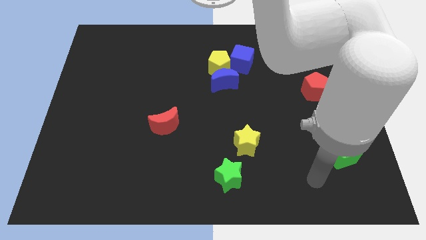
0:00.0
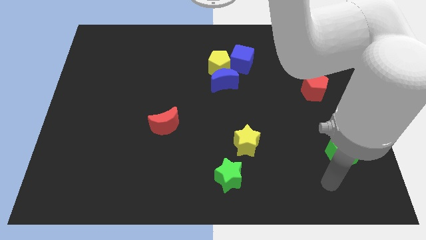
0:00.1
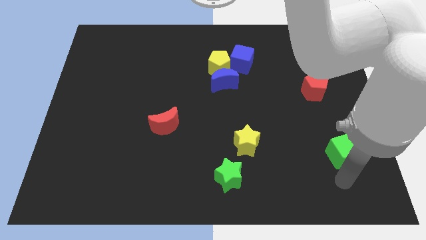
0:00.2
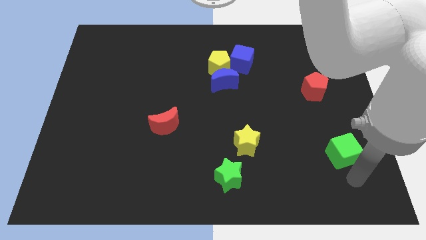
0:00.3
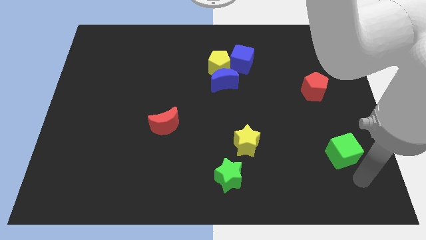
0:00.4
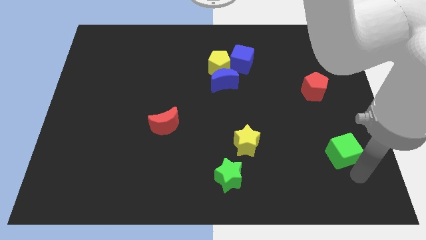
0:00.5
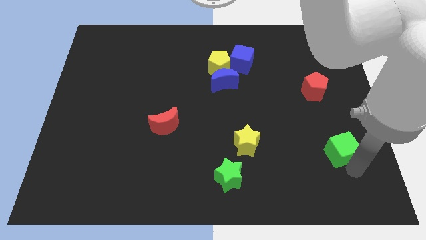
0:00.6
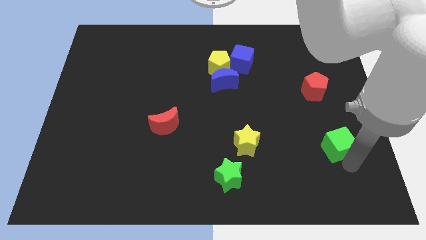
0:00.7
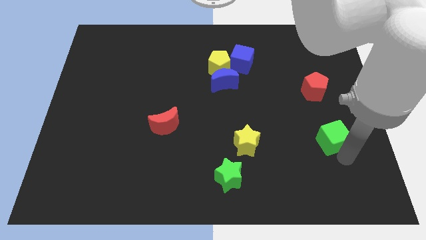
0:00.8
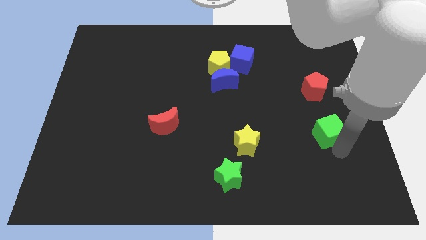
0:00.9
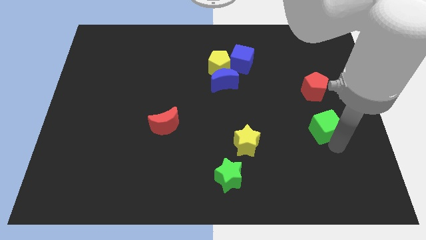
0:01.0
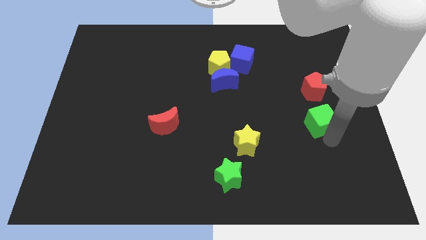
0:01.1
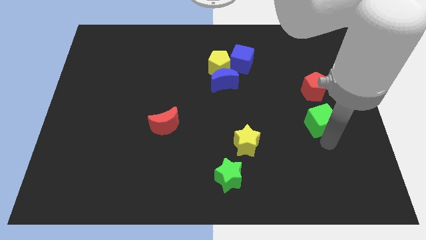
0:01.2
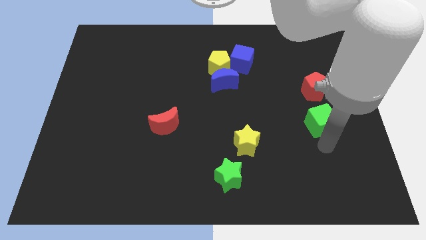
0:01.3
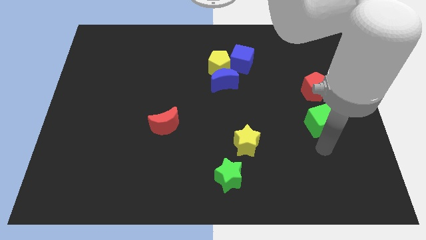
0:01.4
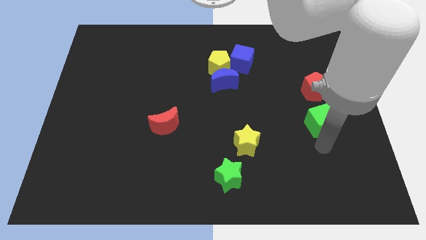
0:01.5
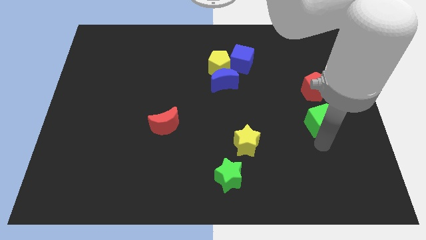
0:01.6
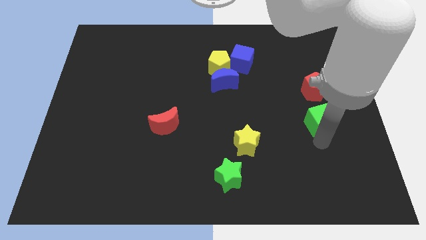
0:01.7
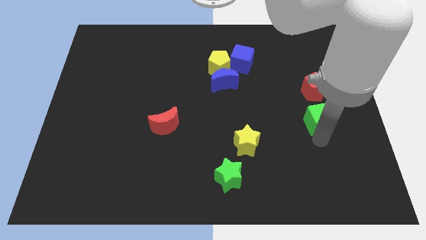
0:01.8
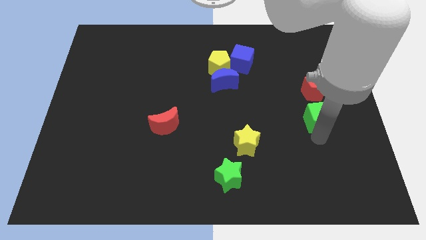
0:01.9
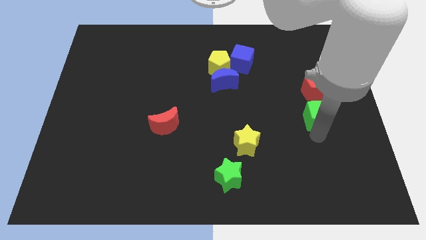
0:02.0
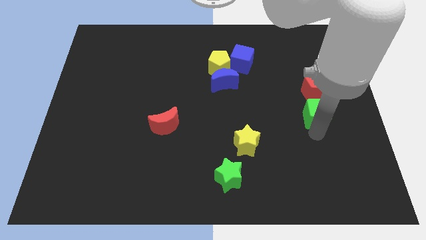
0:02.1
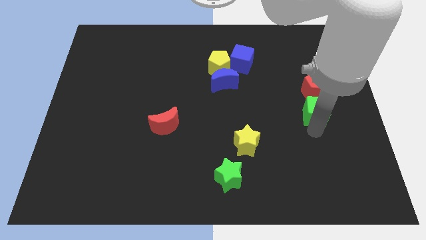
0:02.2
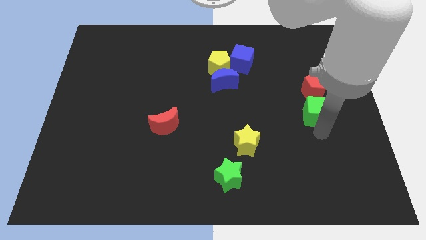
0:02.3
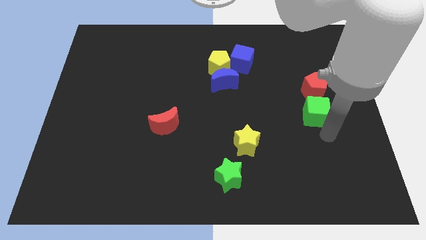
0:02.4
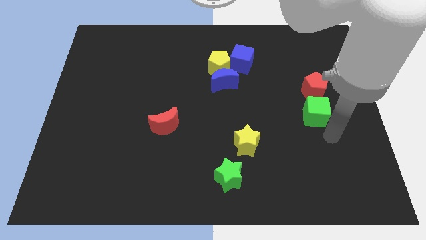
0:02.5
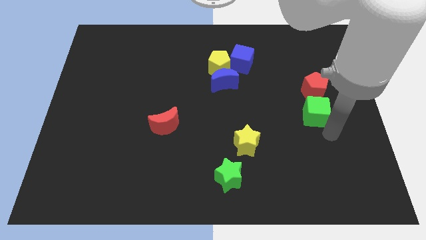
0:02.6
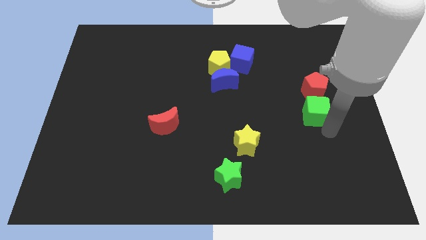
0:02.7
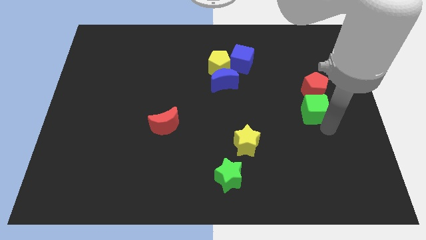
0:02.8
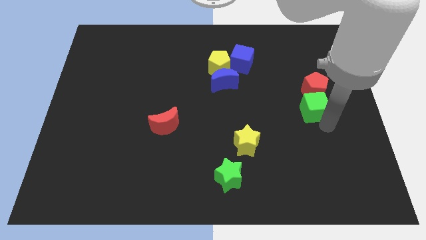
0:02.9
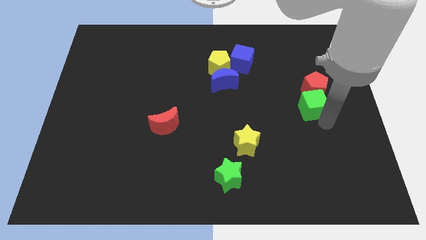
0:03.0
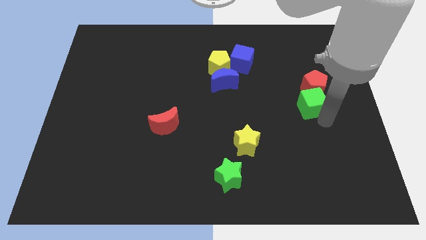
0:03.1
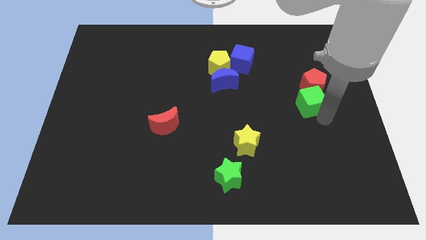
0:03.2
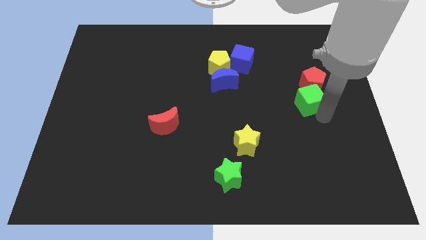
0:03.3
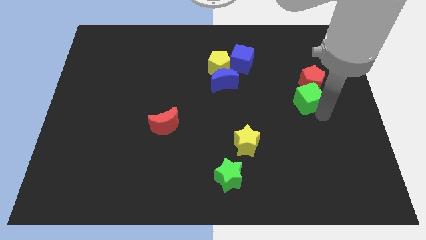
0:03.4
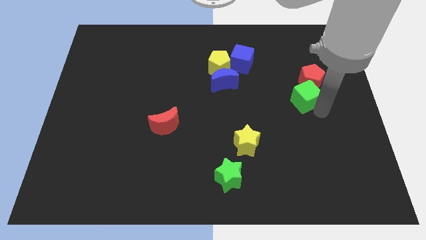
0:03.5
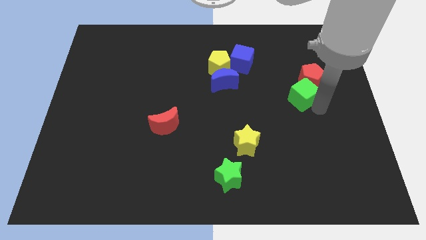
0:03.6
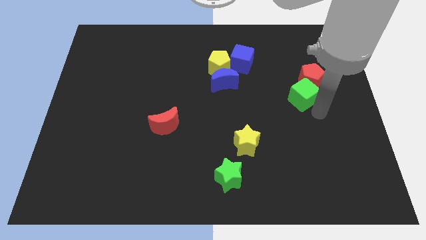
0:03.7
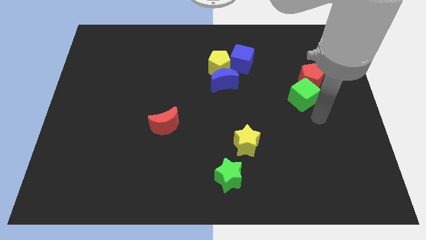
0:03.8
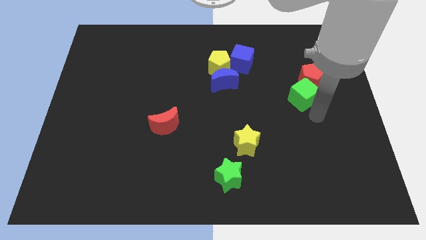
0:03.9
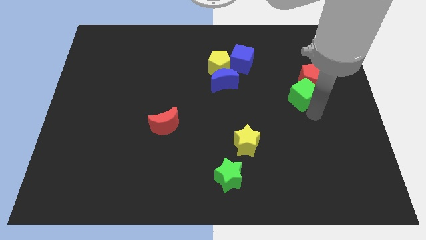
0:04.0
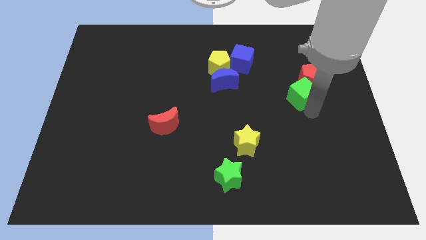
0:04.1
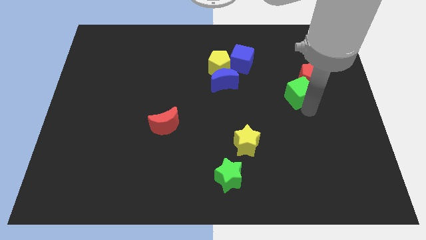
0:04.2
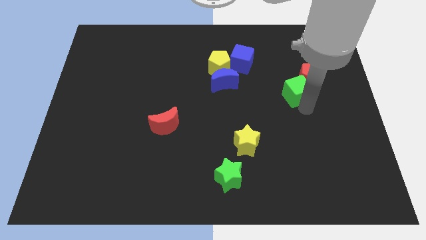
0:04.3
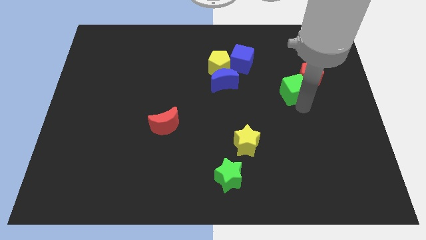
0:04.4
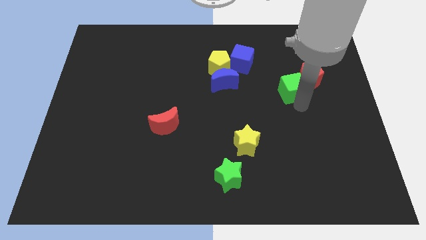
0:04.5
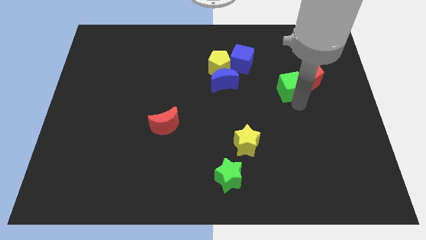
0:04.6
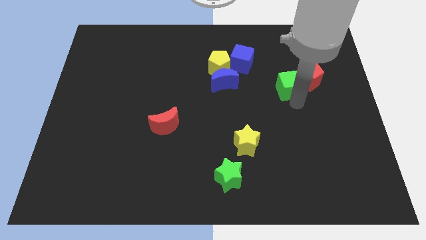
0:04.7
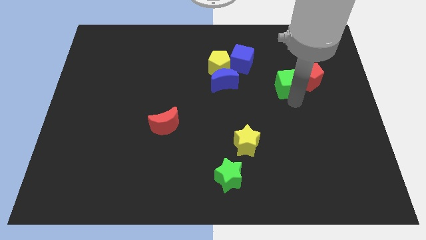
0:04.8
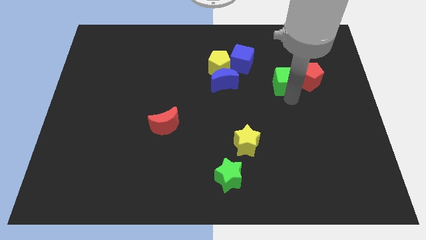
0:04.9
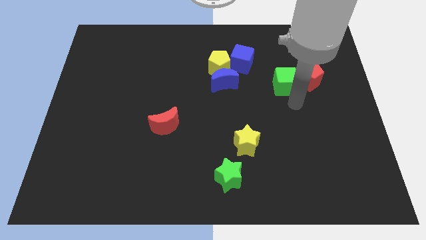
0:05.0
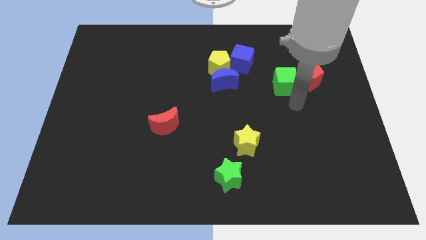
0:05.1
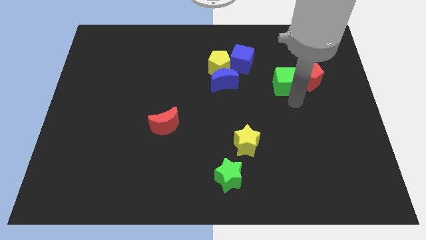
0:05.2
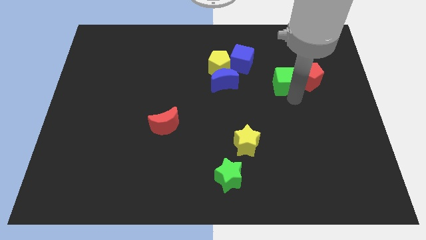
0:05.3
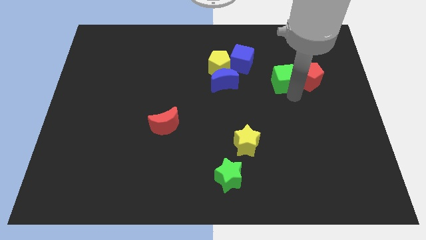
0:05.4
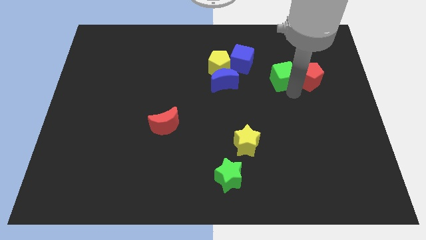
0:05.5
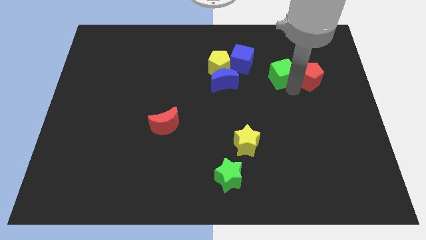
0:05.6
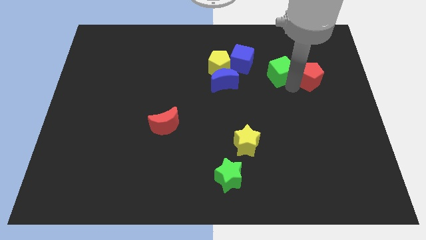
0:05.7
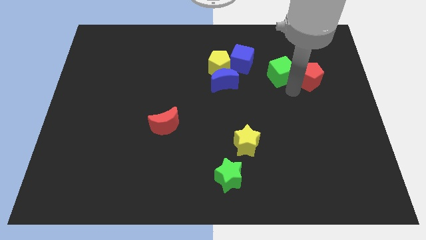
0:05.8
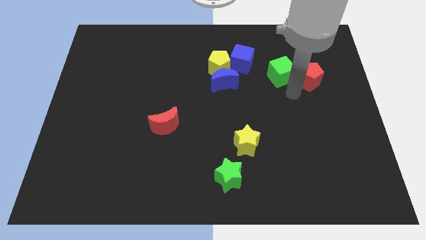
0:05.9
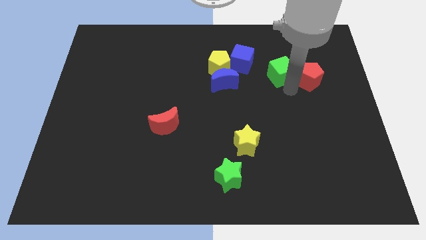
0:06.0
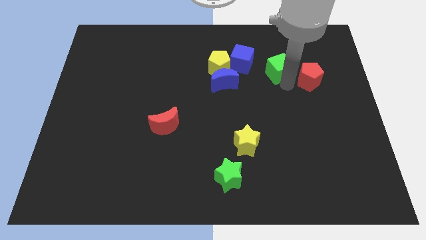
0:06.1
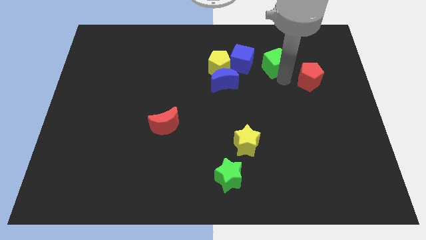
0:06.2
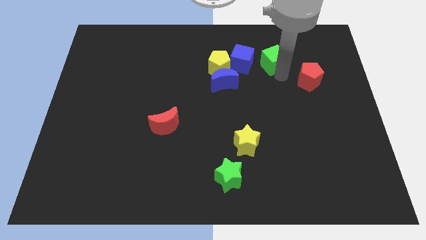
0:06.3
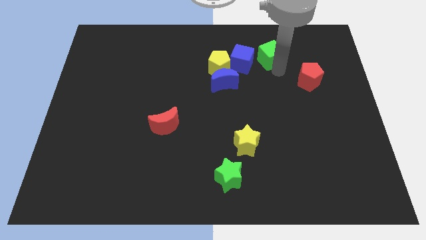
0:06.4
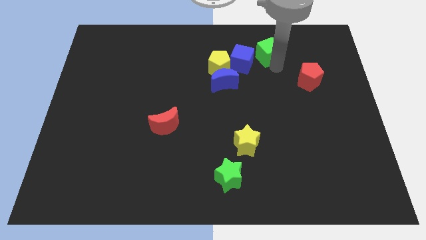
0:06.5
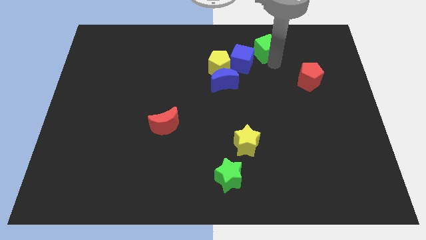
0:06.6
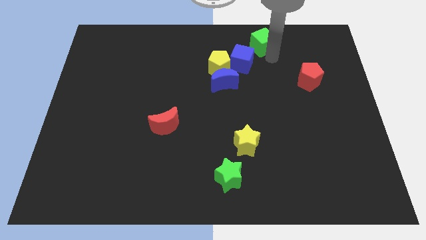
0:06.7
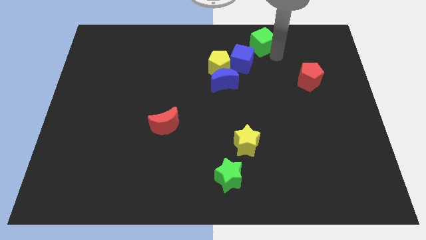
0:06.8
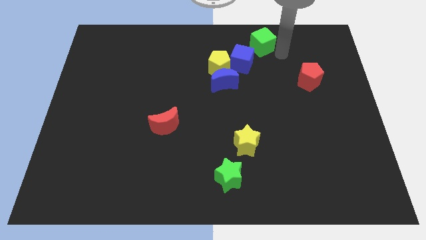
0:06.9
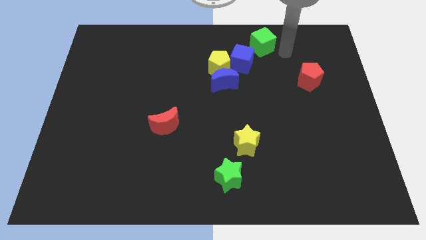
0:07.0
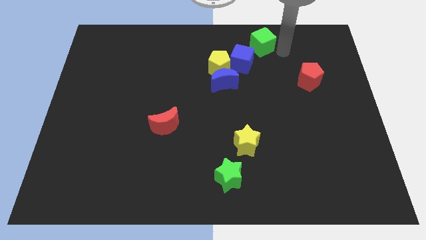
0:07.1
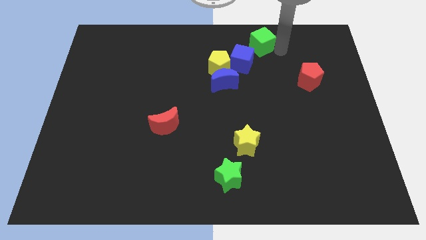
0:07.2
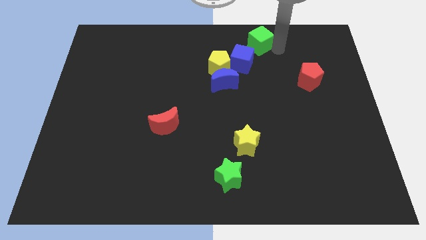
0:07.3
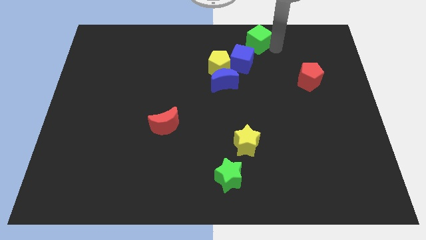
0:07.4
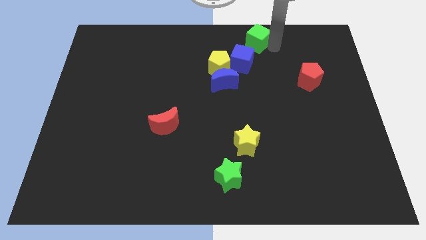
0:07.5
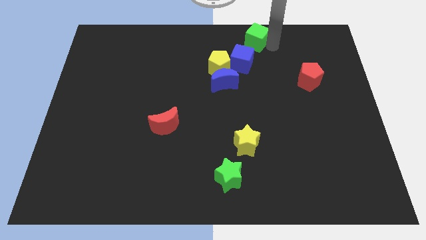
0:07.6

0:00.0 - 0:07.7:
slide the green cube to the top side
